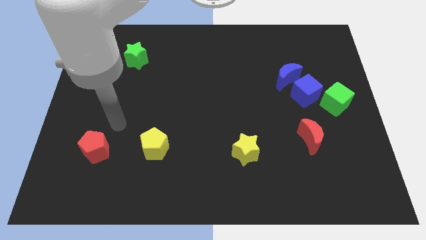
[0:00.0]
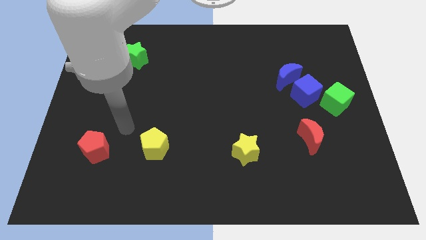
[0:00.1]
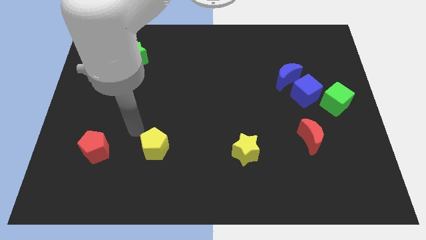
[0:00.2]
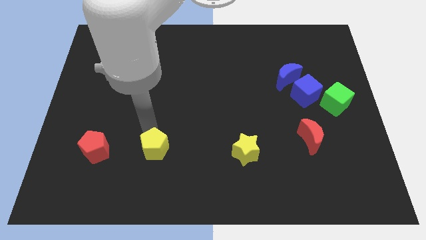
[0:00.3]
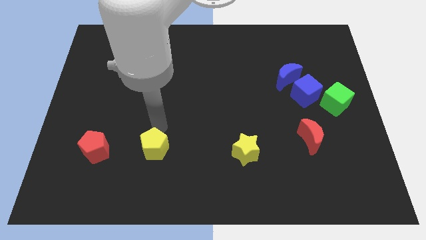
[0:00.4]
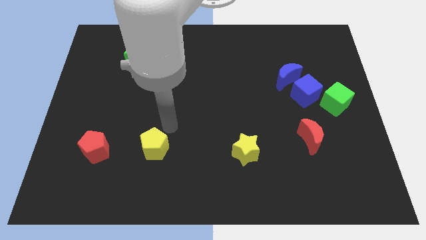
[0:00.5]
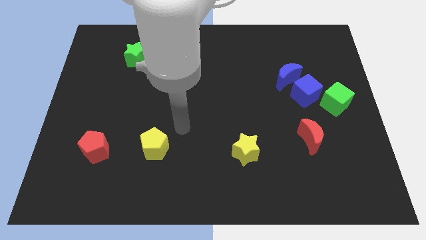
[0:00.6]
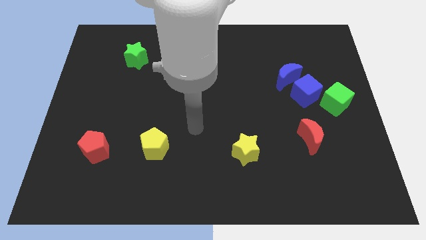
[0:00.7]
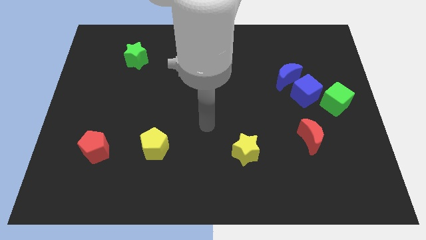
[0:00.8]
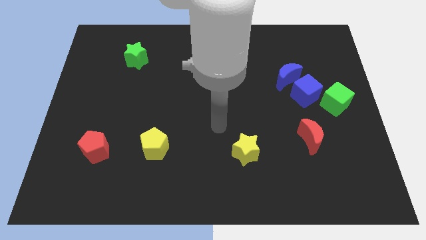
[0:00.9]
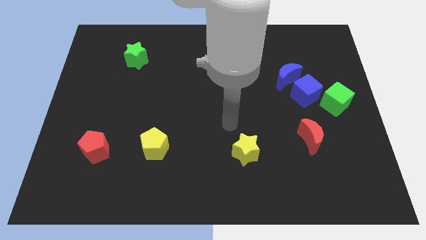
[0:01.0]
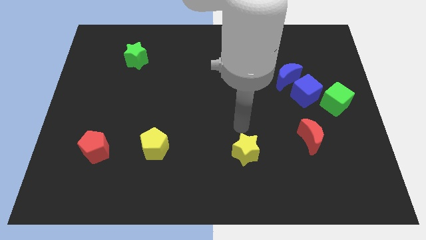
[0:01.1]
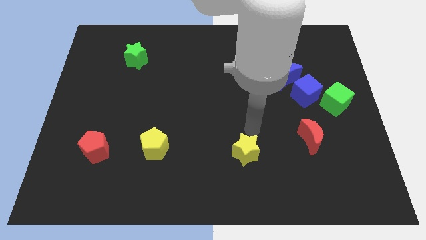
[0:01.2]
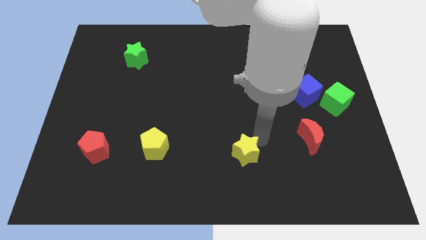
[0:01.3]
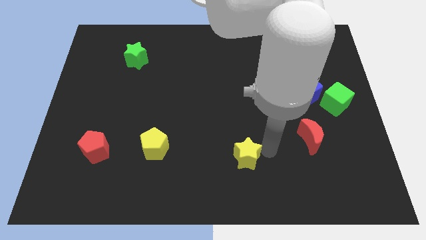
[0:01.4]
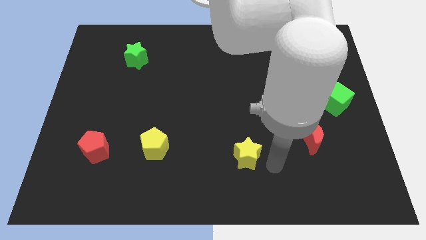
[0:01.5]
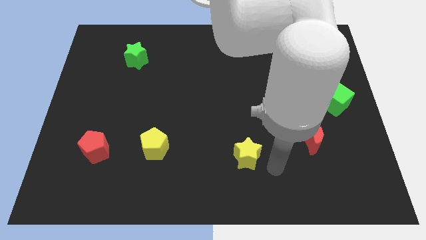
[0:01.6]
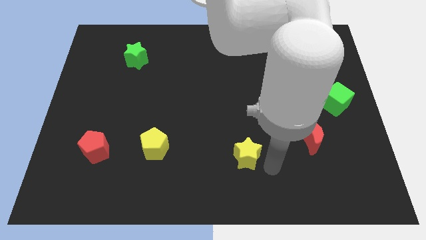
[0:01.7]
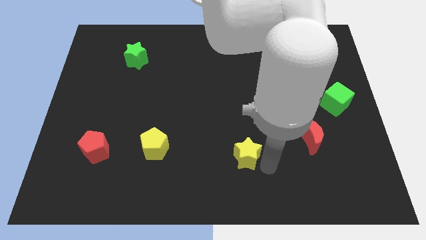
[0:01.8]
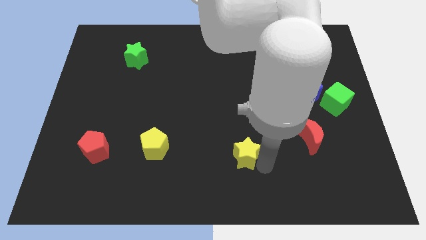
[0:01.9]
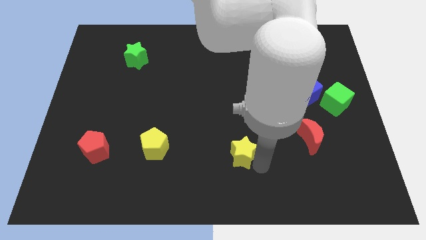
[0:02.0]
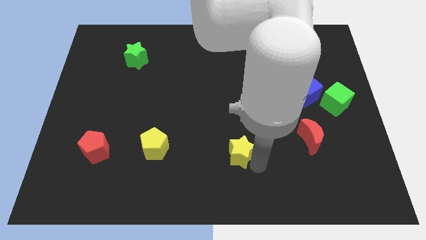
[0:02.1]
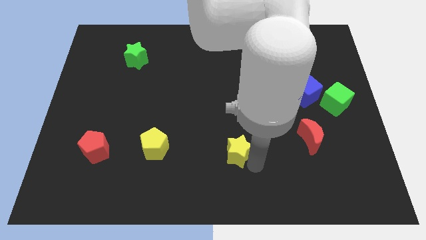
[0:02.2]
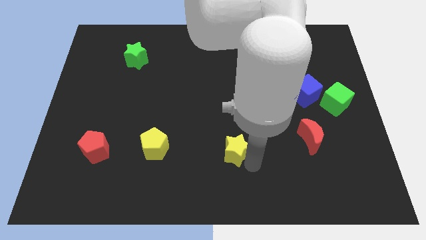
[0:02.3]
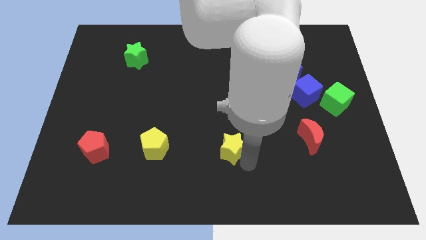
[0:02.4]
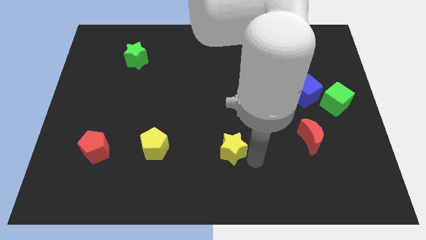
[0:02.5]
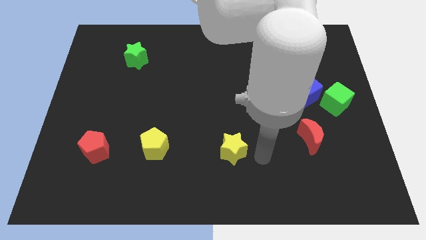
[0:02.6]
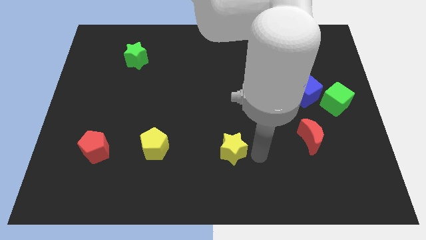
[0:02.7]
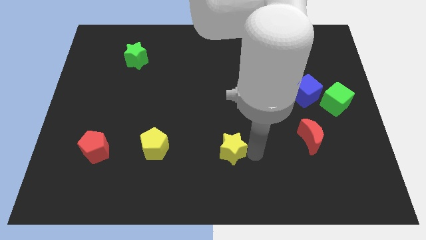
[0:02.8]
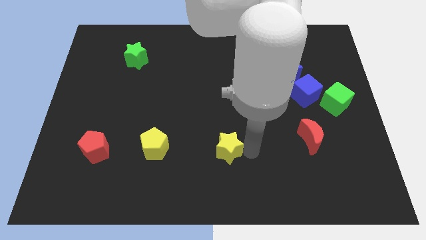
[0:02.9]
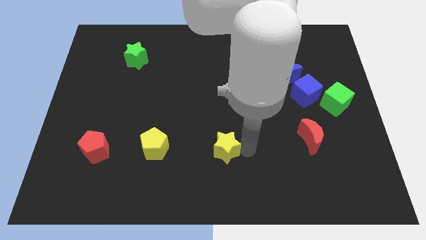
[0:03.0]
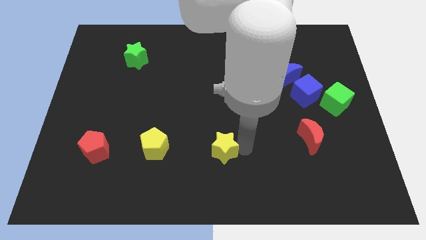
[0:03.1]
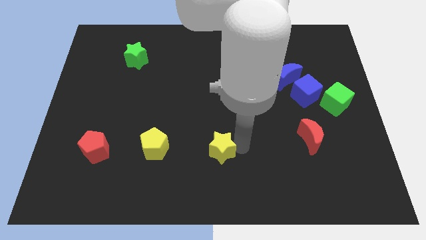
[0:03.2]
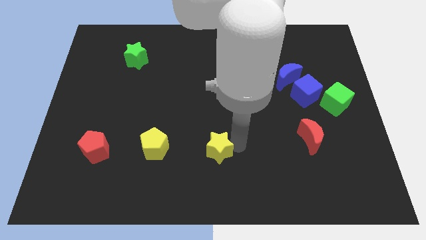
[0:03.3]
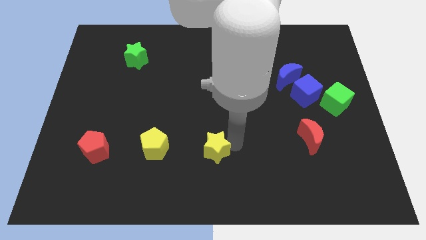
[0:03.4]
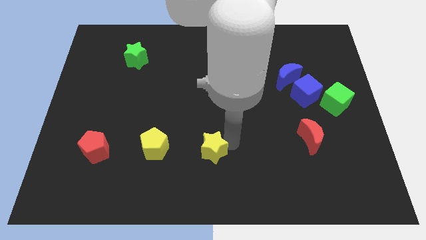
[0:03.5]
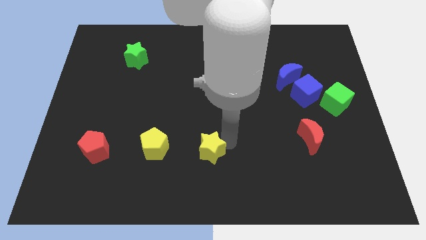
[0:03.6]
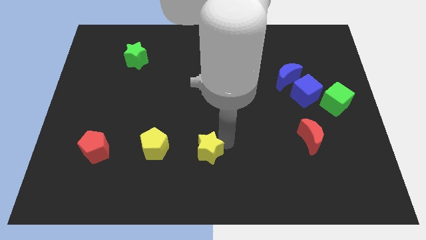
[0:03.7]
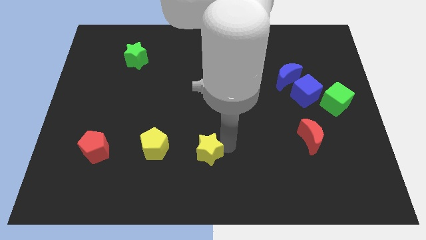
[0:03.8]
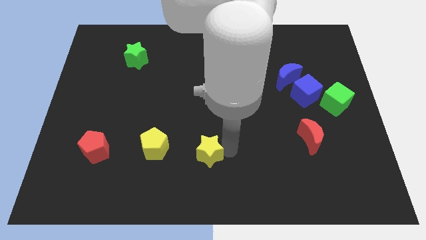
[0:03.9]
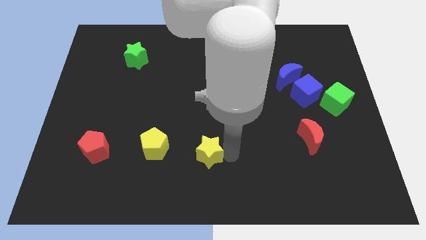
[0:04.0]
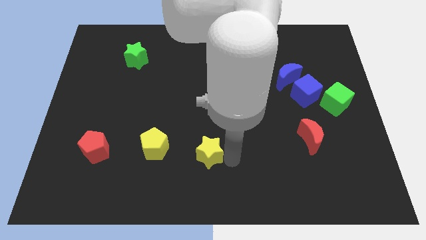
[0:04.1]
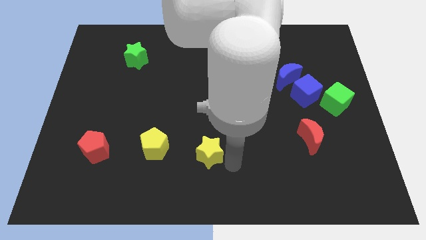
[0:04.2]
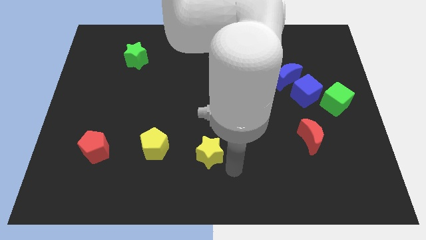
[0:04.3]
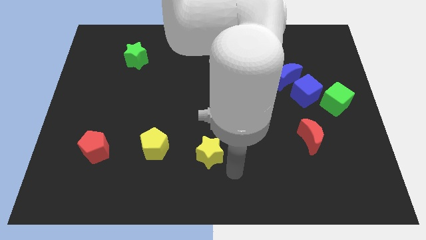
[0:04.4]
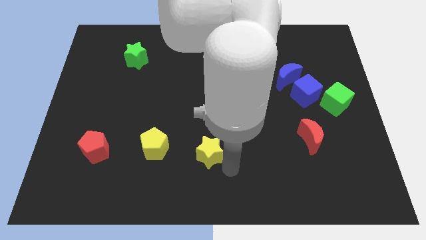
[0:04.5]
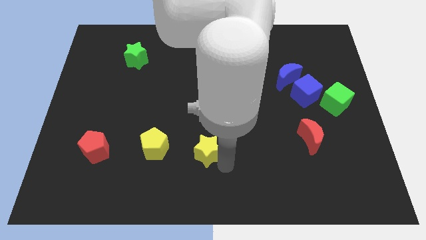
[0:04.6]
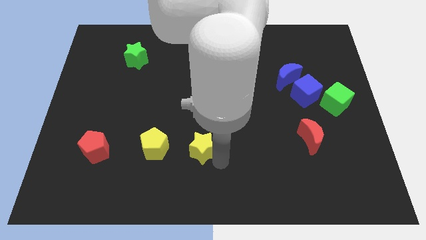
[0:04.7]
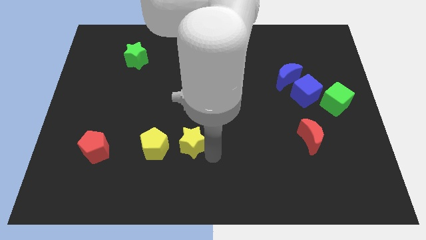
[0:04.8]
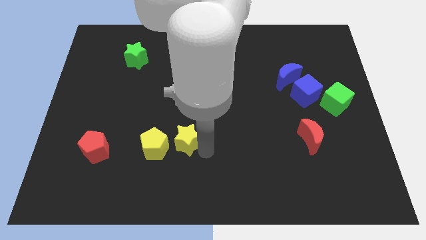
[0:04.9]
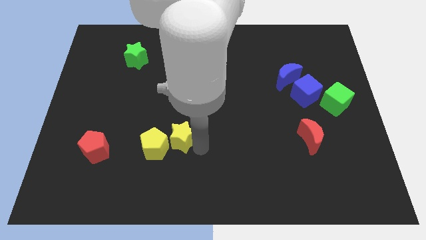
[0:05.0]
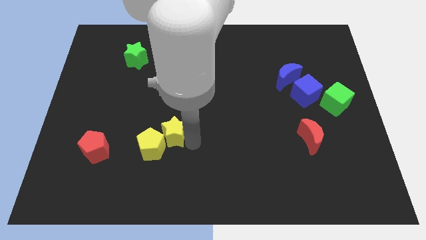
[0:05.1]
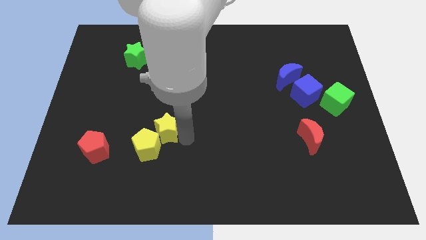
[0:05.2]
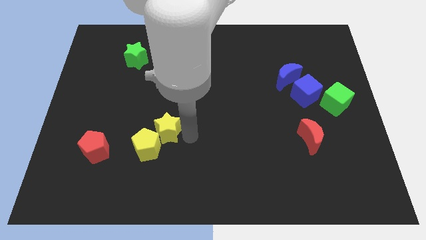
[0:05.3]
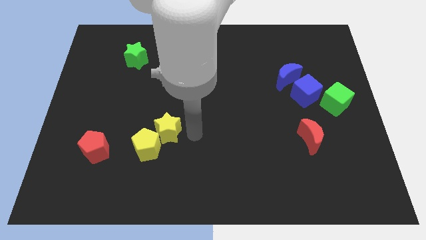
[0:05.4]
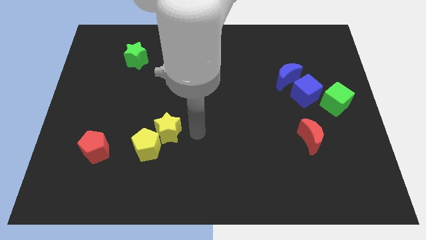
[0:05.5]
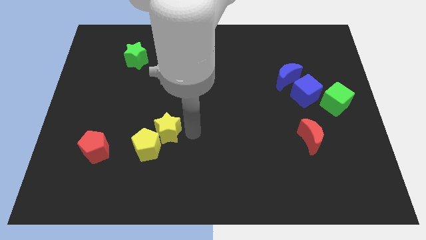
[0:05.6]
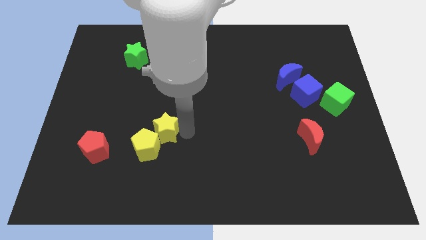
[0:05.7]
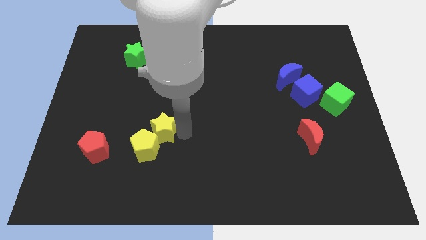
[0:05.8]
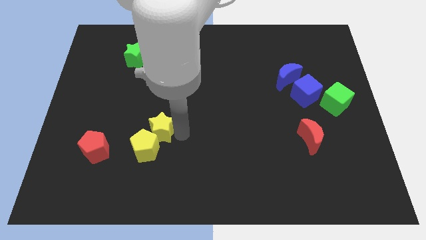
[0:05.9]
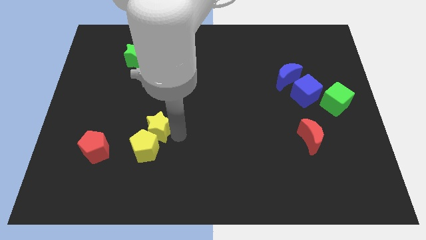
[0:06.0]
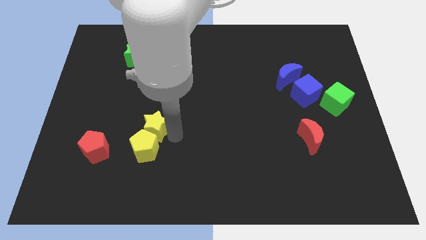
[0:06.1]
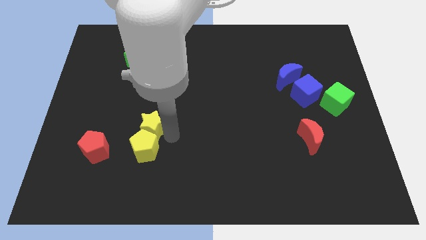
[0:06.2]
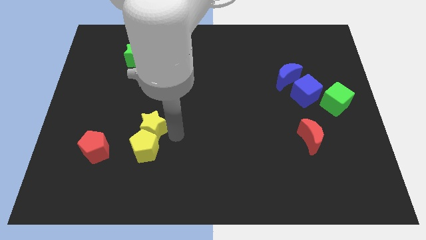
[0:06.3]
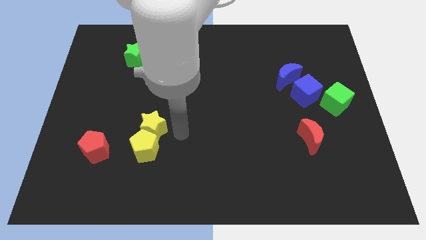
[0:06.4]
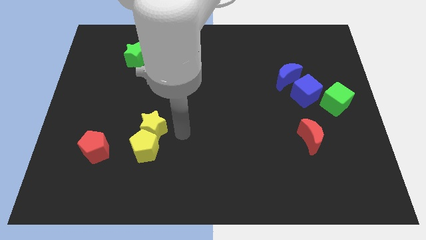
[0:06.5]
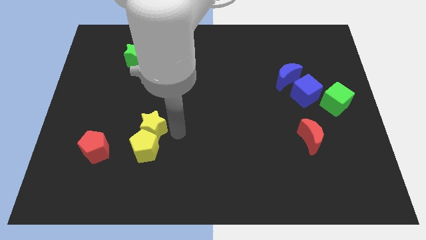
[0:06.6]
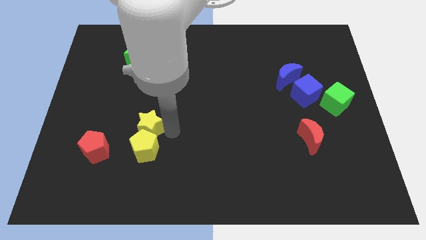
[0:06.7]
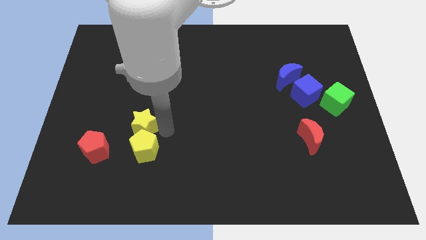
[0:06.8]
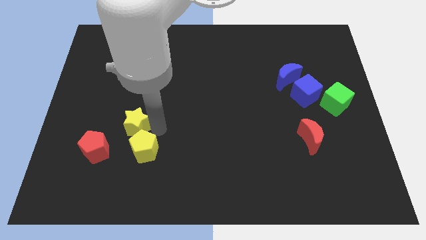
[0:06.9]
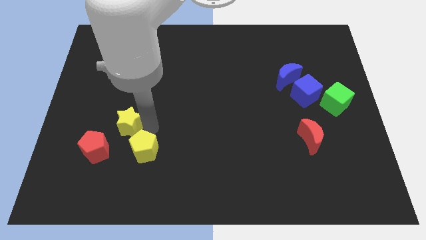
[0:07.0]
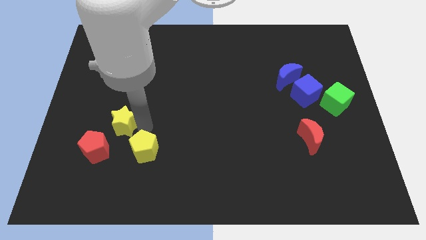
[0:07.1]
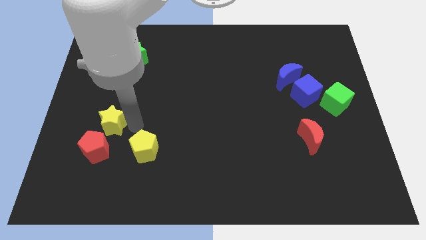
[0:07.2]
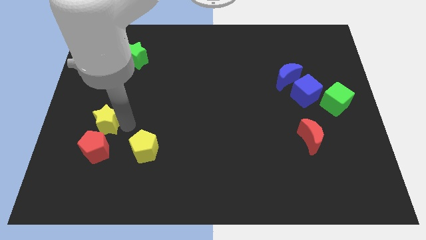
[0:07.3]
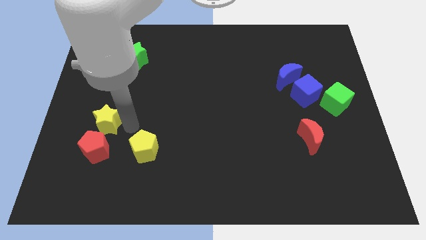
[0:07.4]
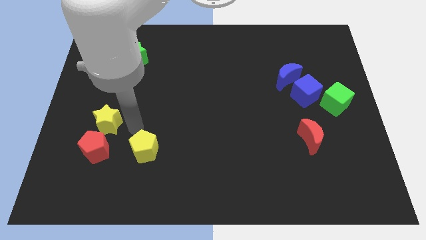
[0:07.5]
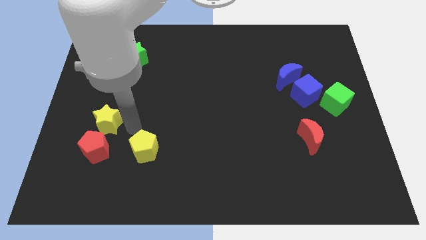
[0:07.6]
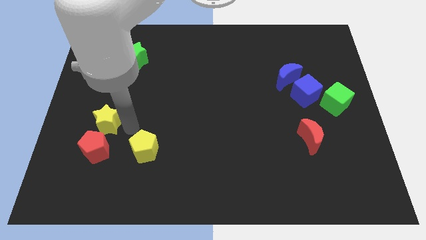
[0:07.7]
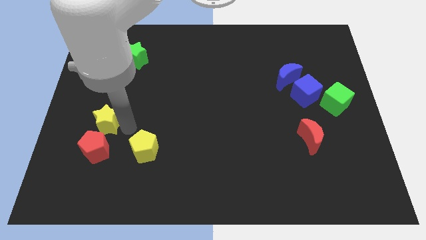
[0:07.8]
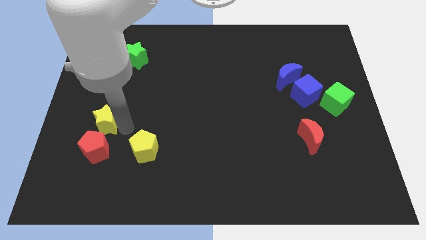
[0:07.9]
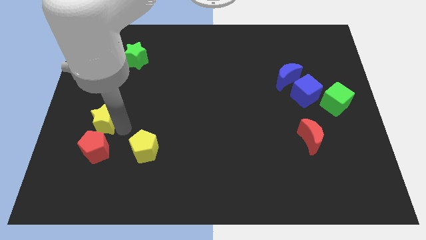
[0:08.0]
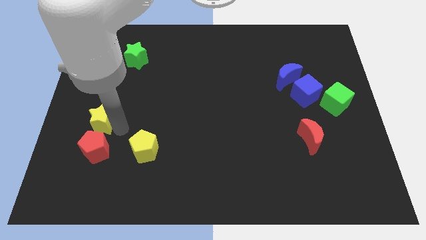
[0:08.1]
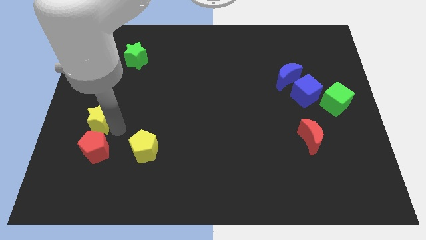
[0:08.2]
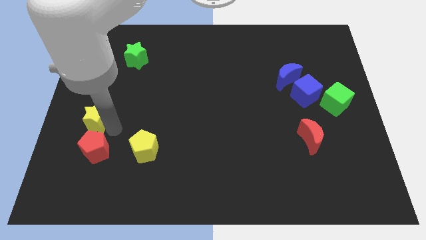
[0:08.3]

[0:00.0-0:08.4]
put the yellow star to the center left

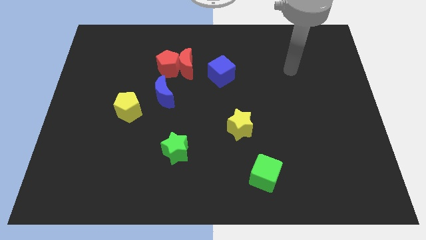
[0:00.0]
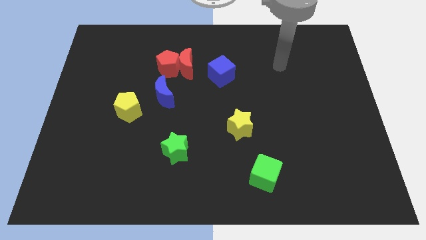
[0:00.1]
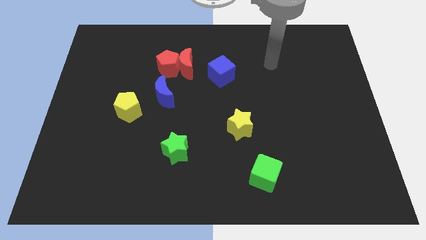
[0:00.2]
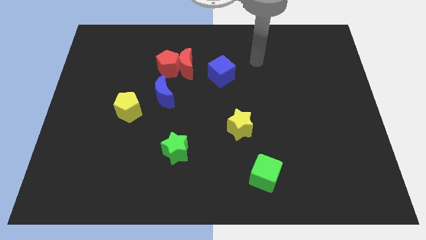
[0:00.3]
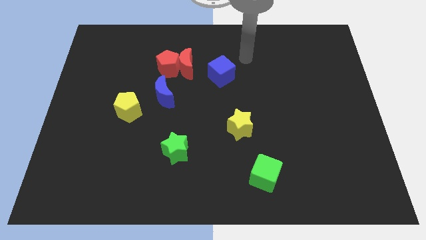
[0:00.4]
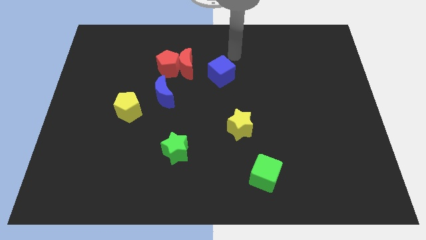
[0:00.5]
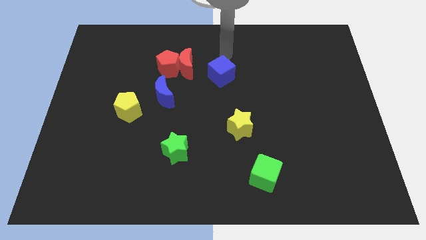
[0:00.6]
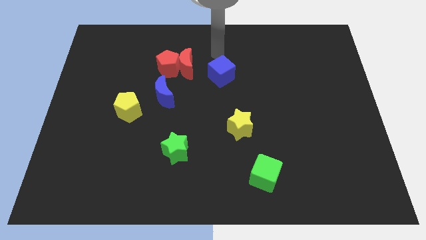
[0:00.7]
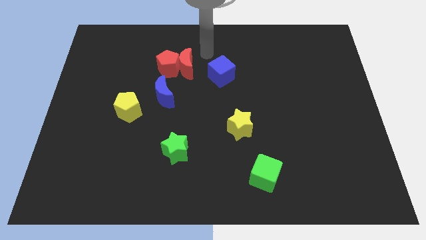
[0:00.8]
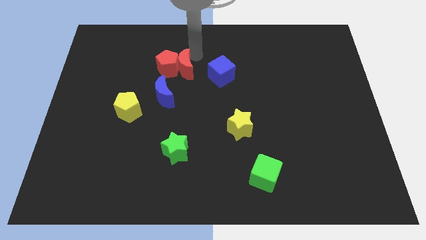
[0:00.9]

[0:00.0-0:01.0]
slide the red moon to the center
